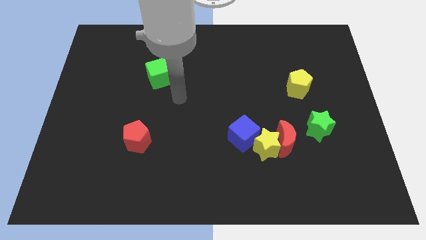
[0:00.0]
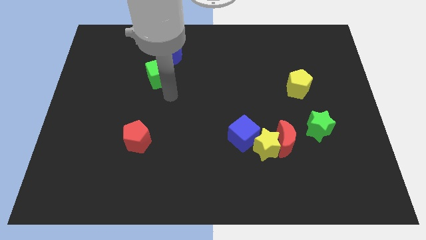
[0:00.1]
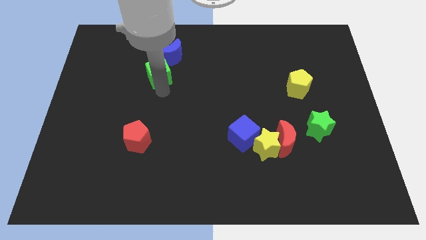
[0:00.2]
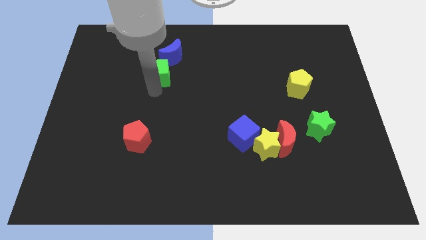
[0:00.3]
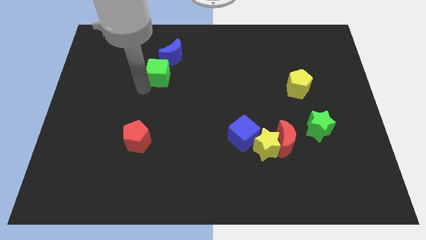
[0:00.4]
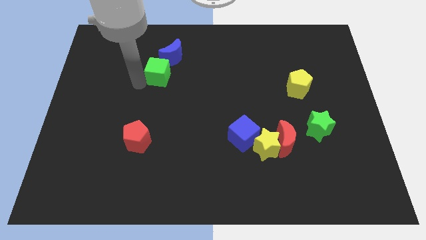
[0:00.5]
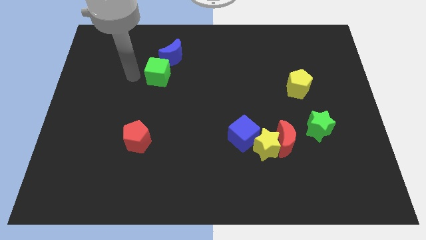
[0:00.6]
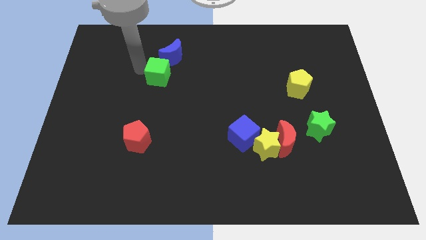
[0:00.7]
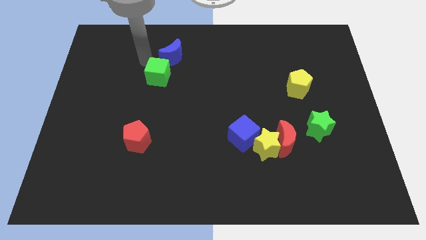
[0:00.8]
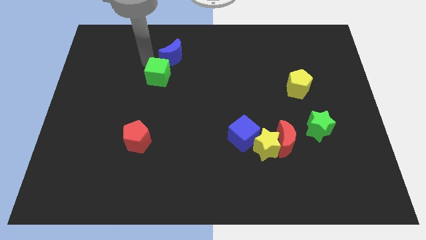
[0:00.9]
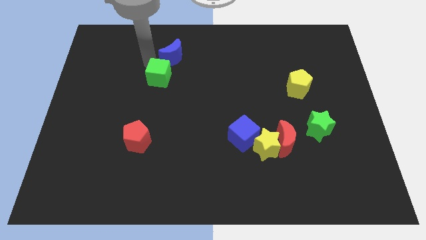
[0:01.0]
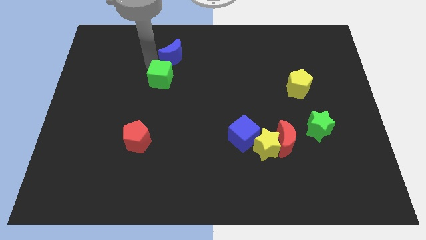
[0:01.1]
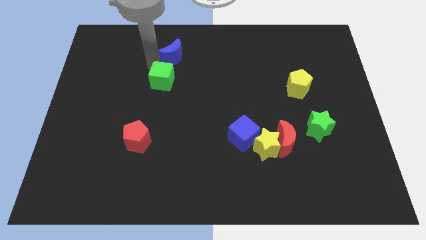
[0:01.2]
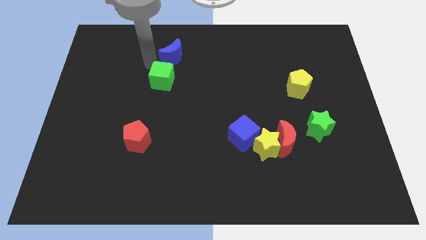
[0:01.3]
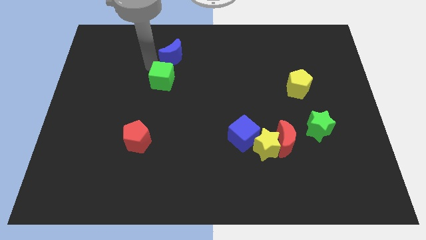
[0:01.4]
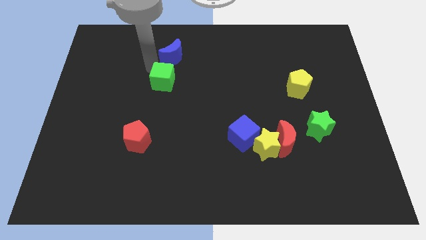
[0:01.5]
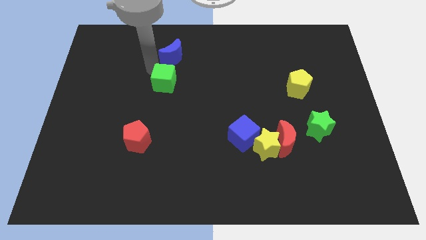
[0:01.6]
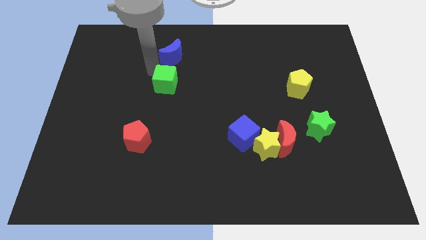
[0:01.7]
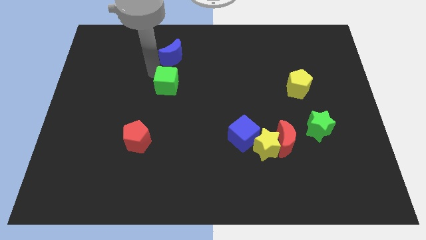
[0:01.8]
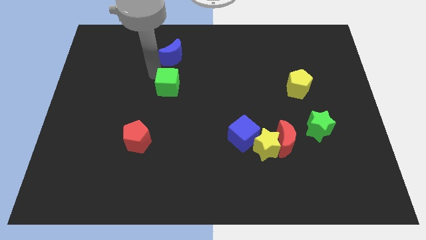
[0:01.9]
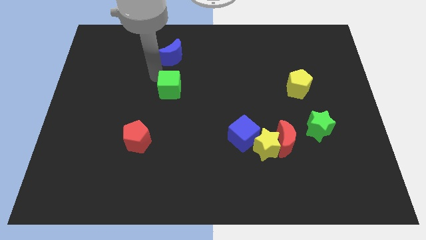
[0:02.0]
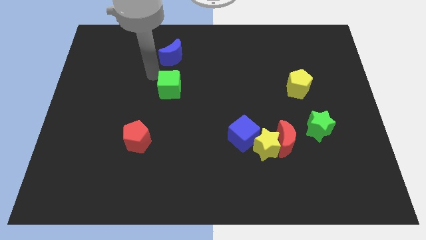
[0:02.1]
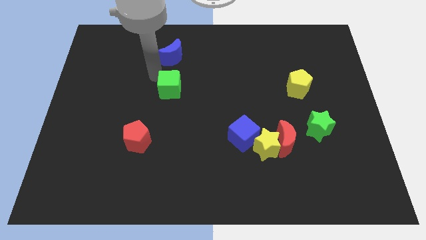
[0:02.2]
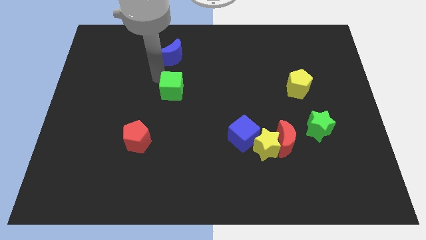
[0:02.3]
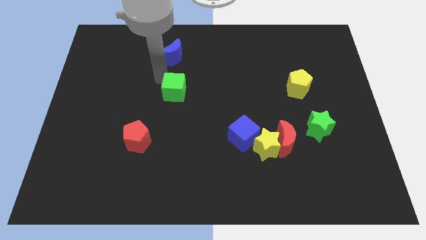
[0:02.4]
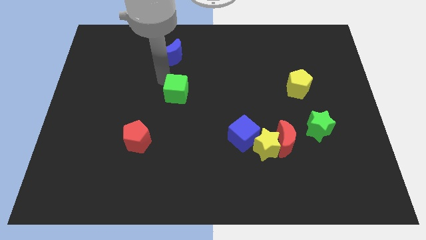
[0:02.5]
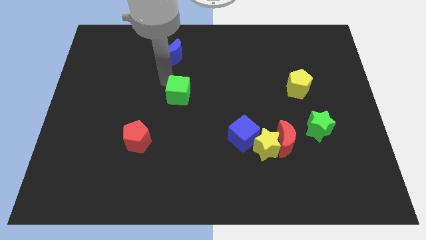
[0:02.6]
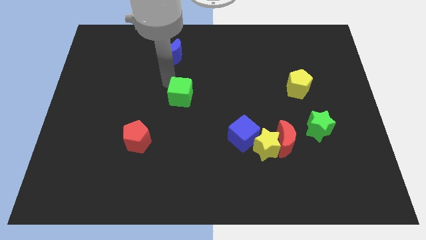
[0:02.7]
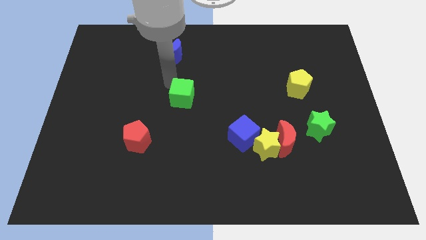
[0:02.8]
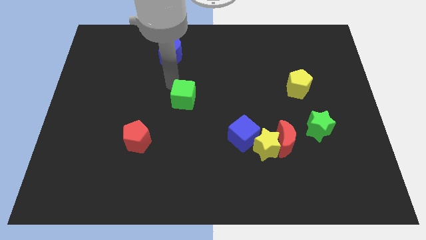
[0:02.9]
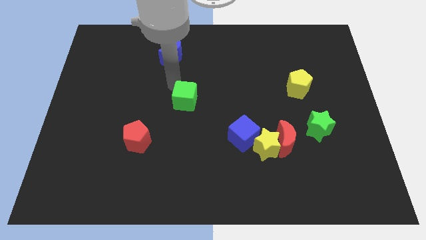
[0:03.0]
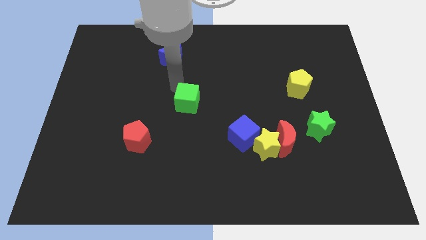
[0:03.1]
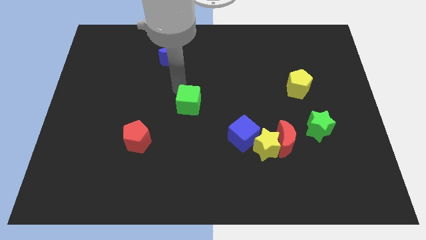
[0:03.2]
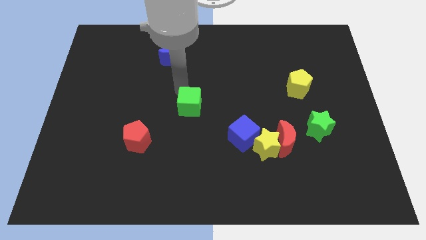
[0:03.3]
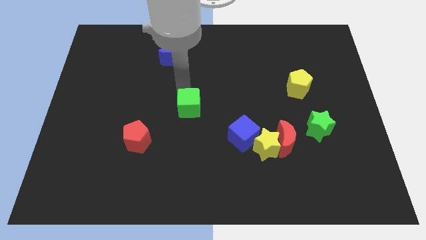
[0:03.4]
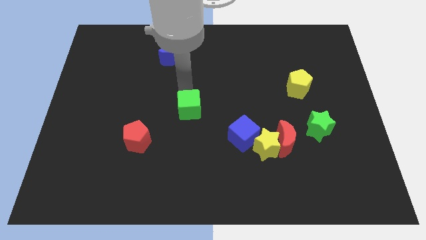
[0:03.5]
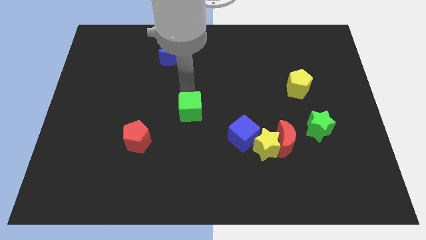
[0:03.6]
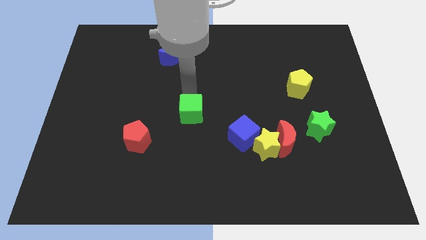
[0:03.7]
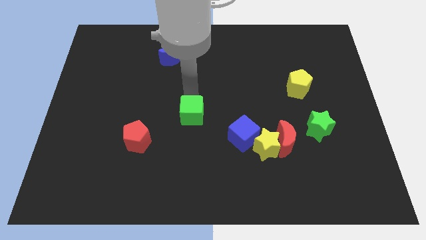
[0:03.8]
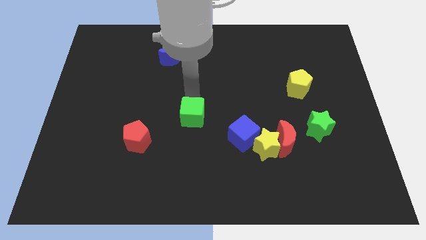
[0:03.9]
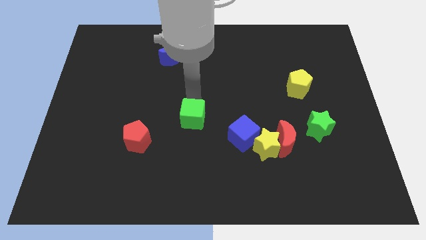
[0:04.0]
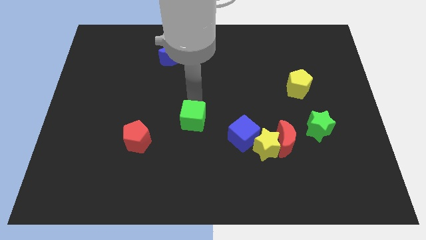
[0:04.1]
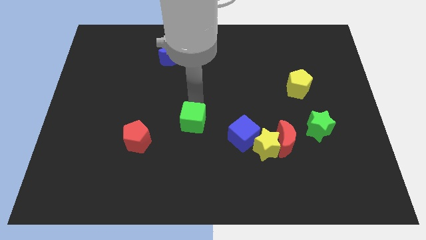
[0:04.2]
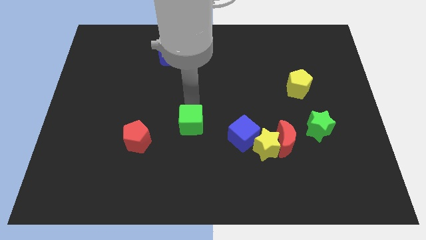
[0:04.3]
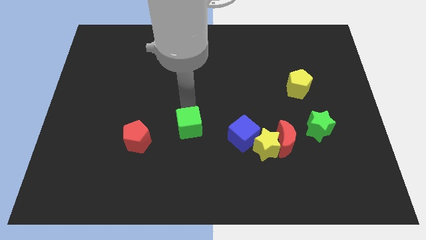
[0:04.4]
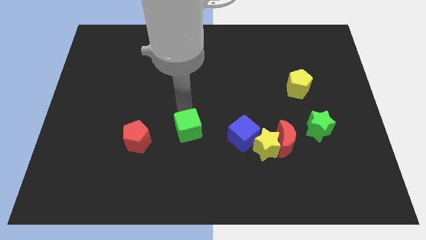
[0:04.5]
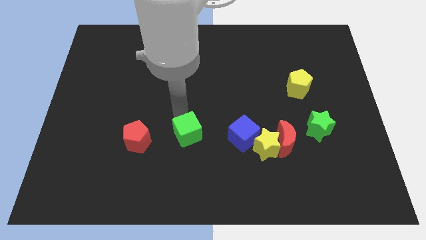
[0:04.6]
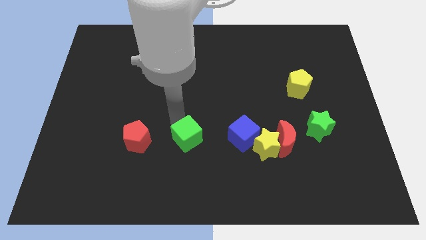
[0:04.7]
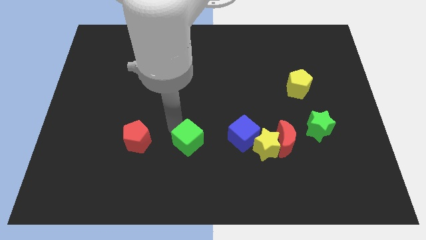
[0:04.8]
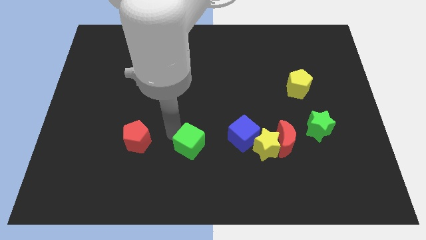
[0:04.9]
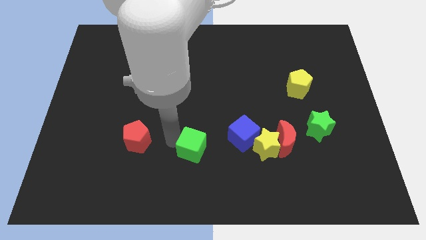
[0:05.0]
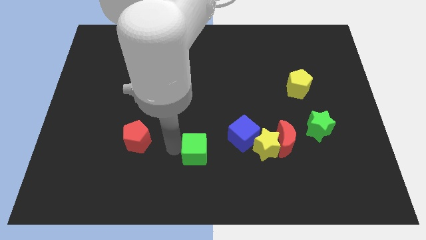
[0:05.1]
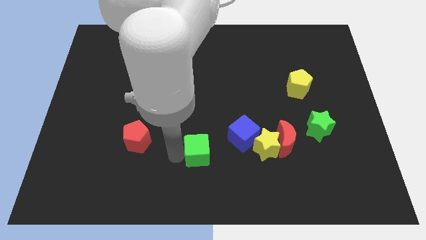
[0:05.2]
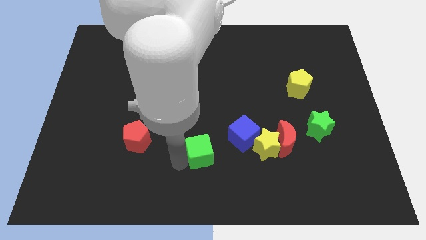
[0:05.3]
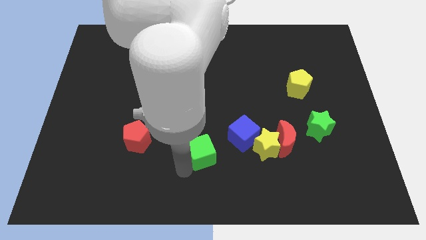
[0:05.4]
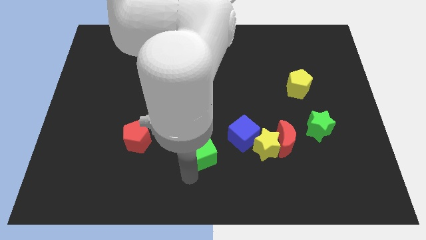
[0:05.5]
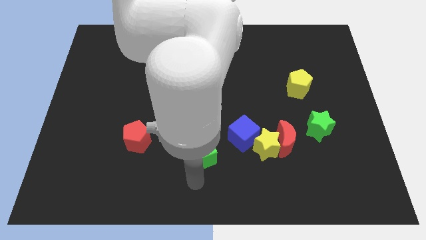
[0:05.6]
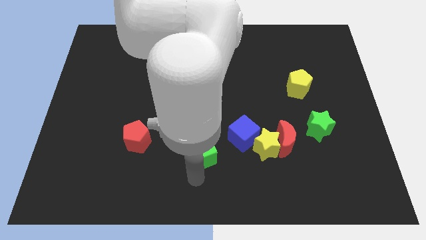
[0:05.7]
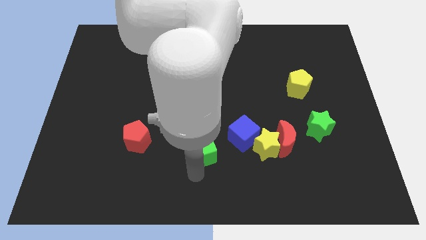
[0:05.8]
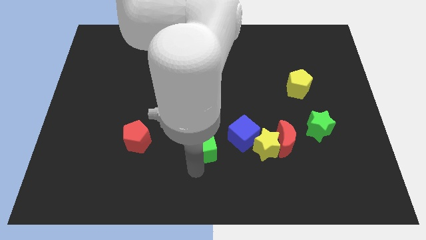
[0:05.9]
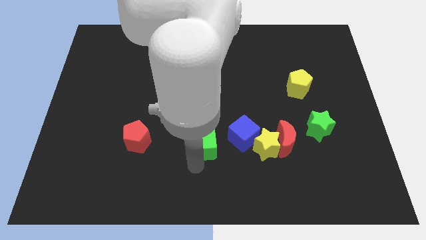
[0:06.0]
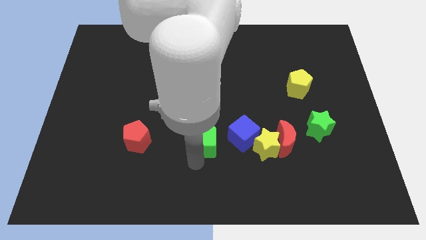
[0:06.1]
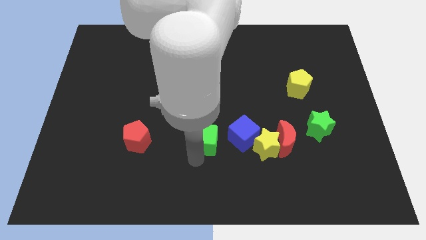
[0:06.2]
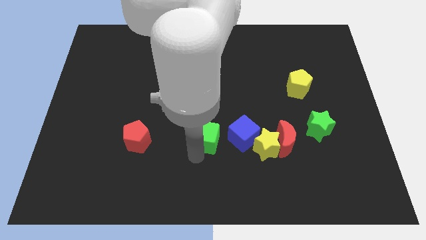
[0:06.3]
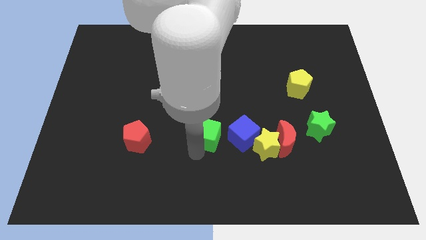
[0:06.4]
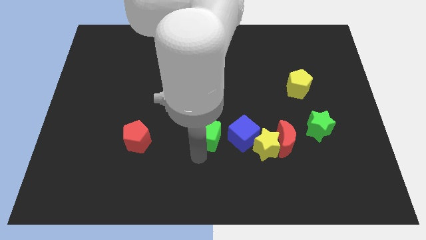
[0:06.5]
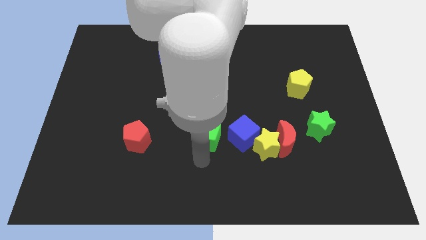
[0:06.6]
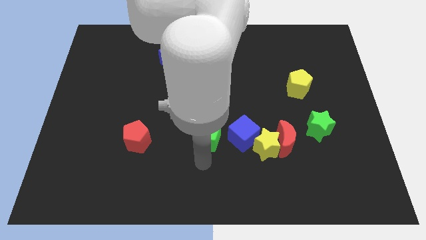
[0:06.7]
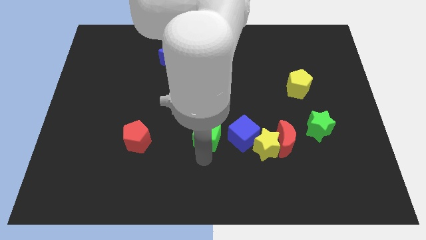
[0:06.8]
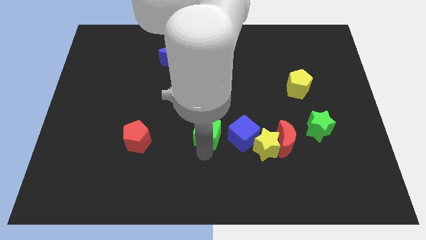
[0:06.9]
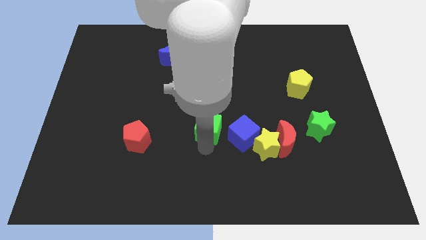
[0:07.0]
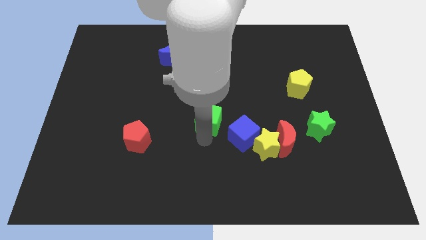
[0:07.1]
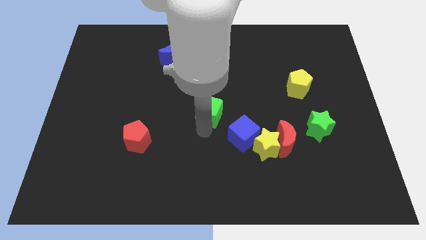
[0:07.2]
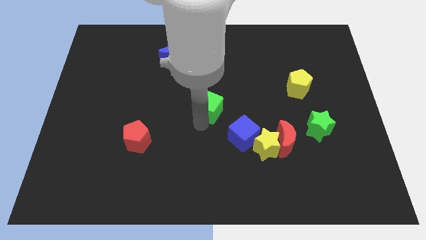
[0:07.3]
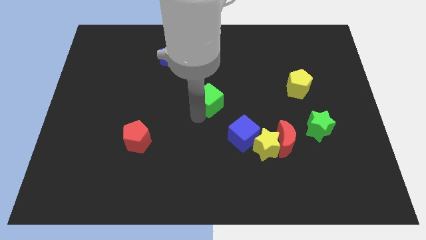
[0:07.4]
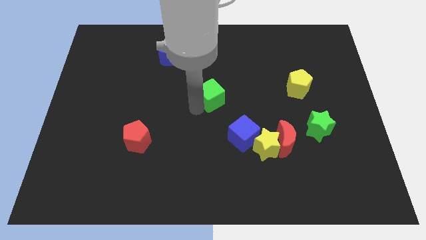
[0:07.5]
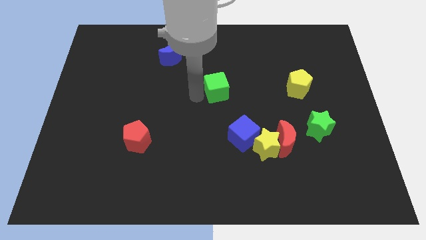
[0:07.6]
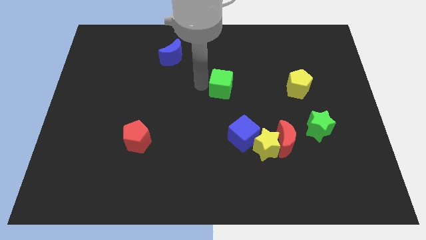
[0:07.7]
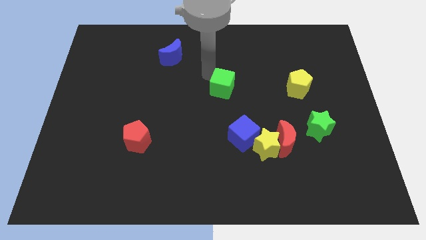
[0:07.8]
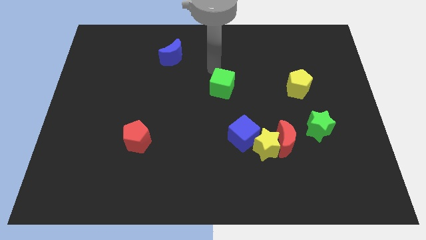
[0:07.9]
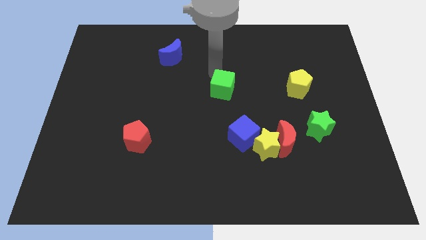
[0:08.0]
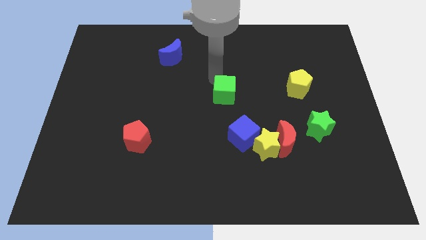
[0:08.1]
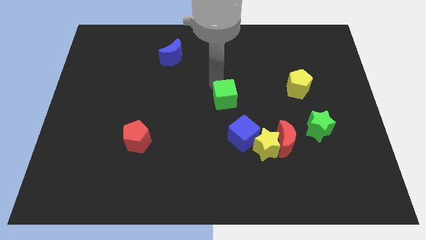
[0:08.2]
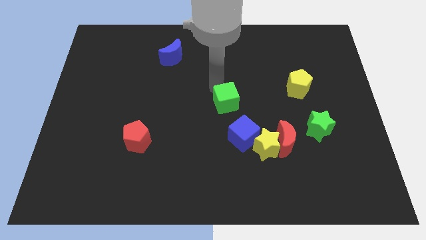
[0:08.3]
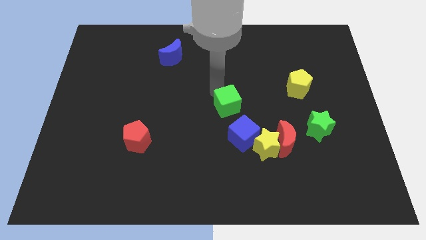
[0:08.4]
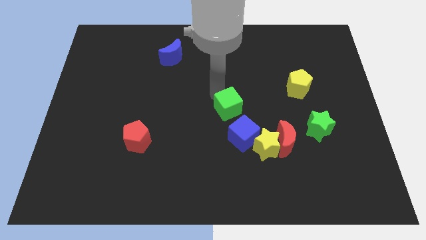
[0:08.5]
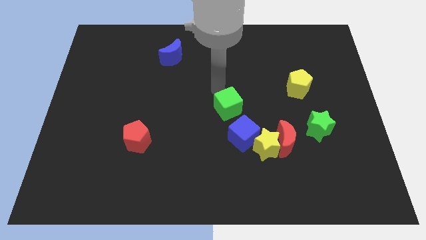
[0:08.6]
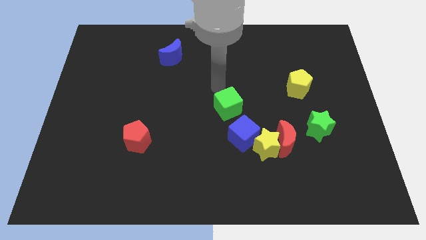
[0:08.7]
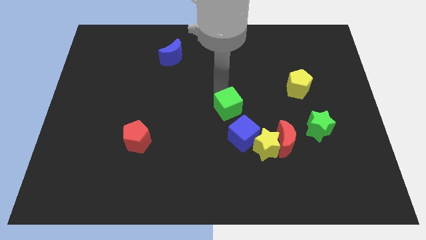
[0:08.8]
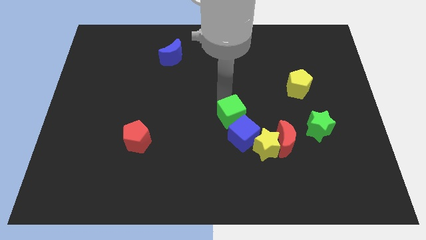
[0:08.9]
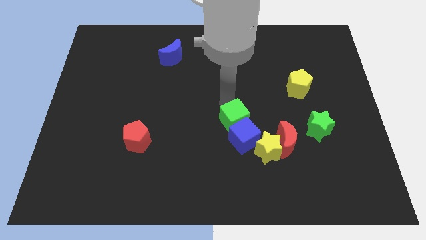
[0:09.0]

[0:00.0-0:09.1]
slide the green cube close to the blue cube
